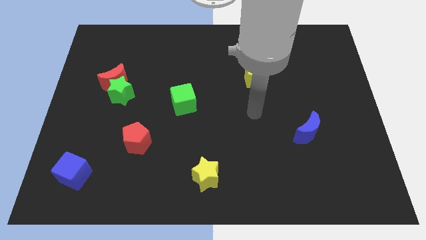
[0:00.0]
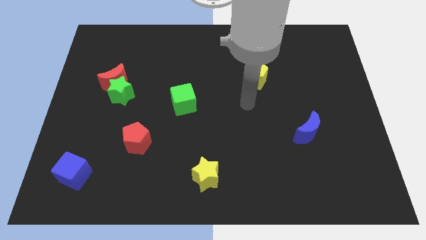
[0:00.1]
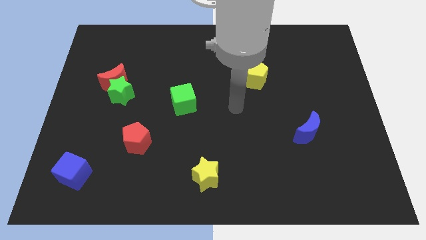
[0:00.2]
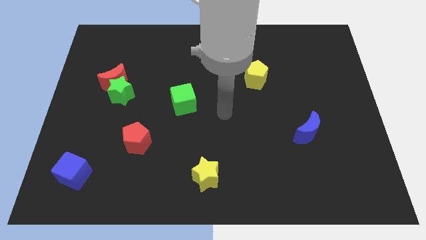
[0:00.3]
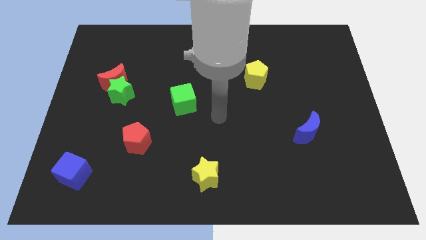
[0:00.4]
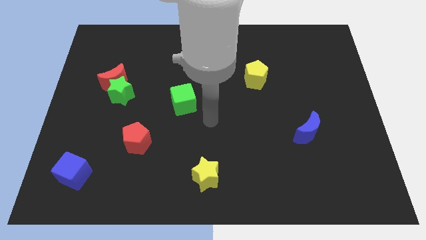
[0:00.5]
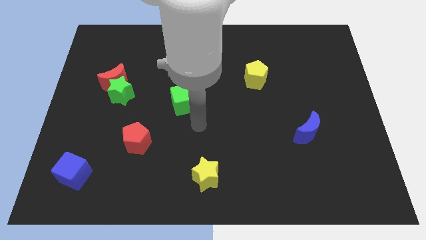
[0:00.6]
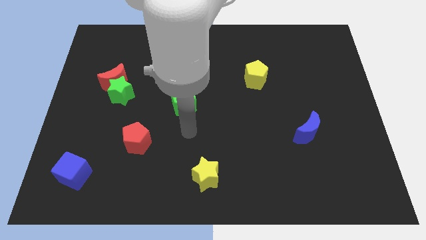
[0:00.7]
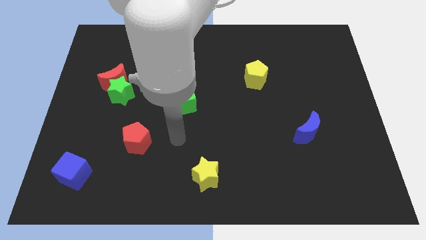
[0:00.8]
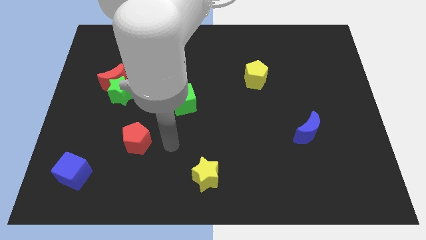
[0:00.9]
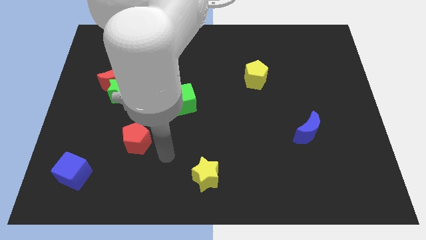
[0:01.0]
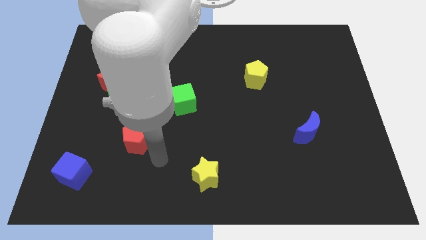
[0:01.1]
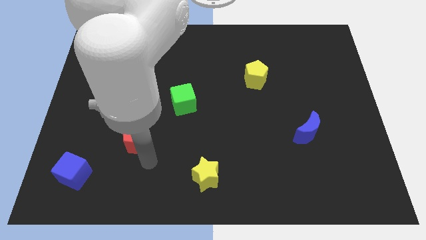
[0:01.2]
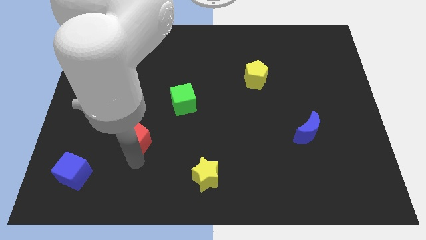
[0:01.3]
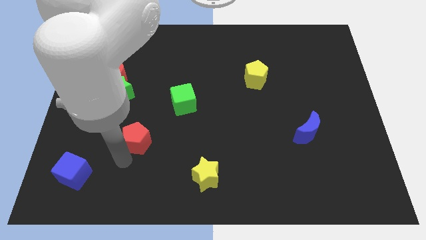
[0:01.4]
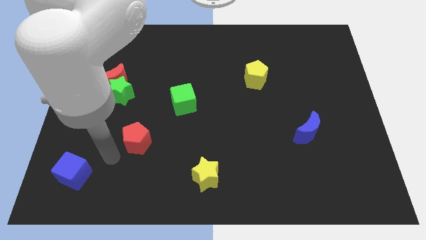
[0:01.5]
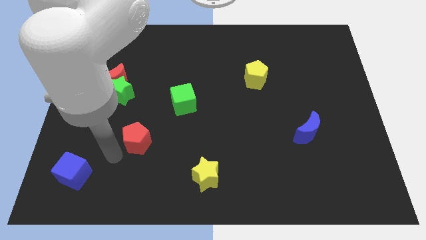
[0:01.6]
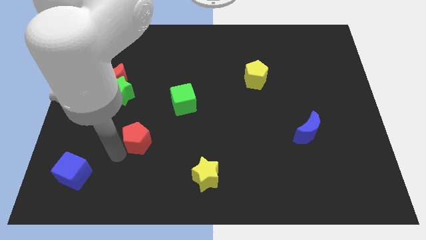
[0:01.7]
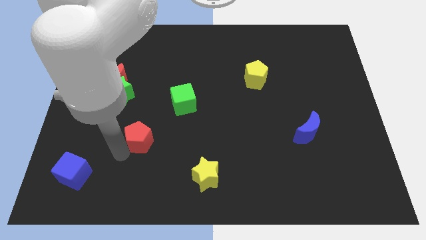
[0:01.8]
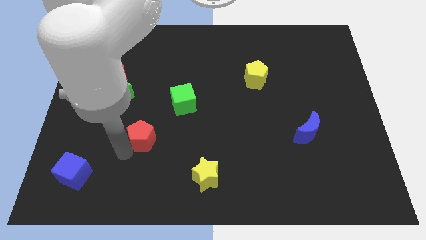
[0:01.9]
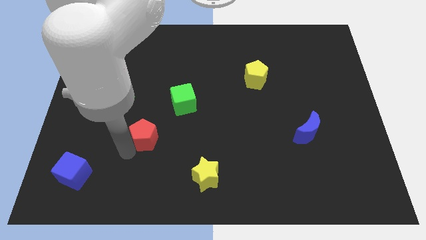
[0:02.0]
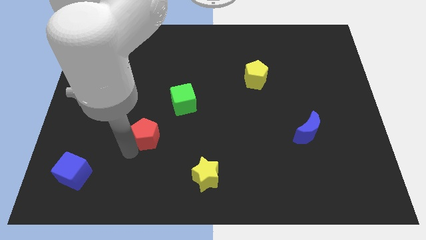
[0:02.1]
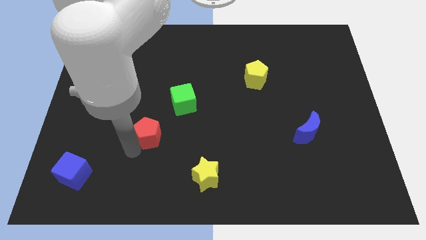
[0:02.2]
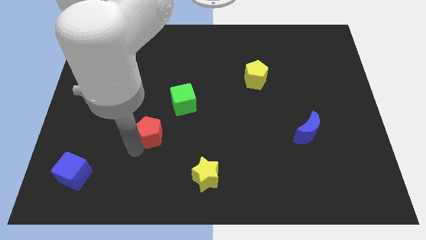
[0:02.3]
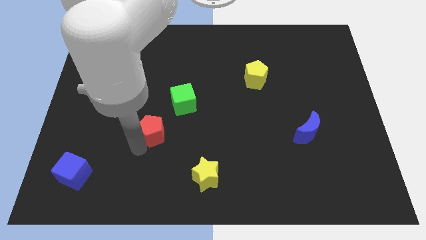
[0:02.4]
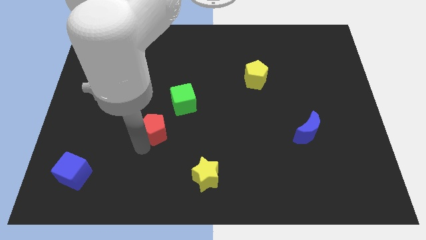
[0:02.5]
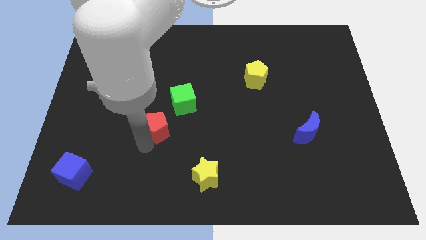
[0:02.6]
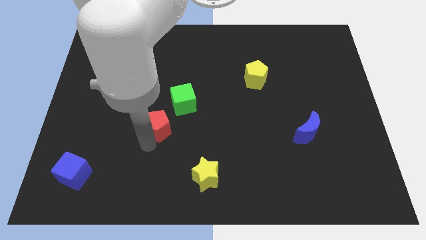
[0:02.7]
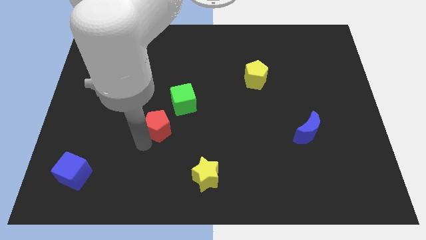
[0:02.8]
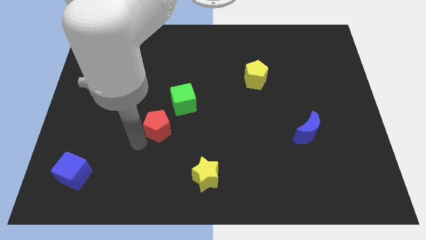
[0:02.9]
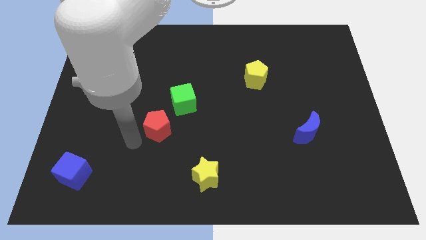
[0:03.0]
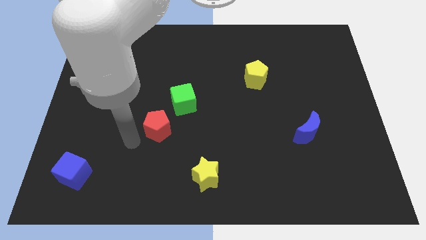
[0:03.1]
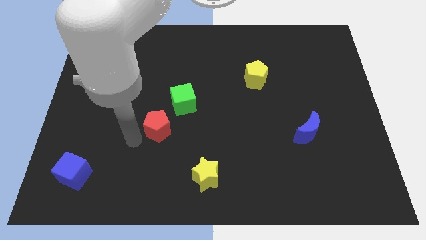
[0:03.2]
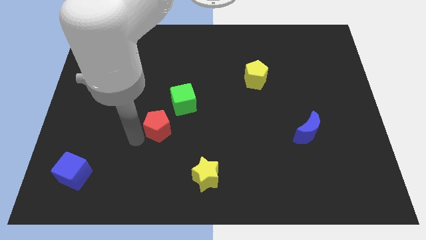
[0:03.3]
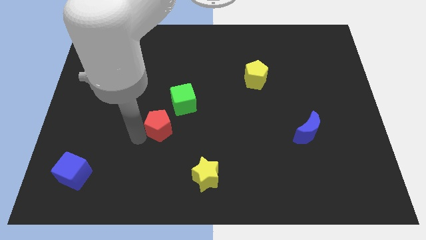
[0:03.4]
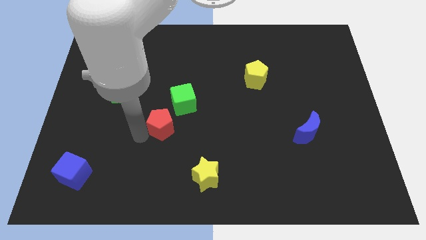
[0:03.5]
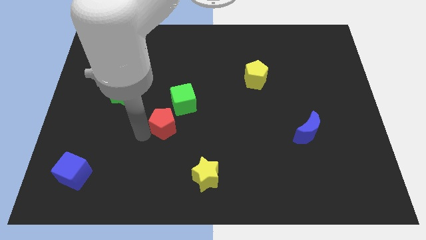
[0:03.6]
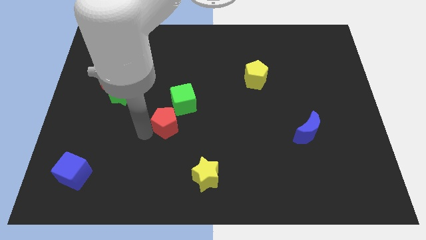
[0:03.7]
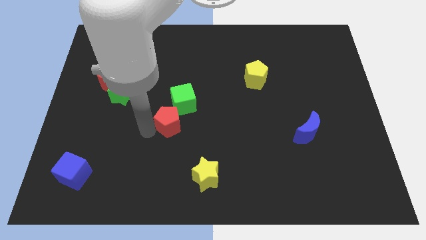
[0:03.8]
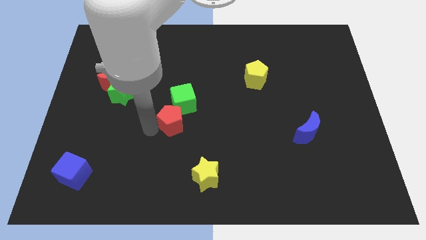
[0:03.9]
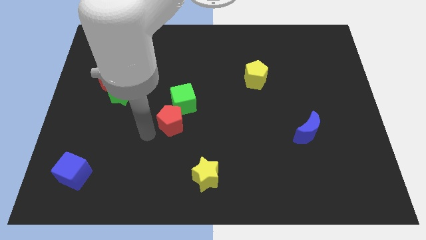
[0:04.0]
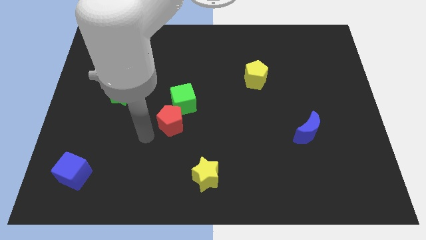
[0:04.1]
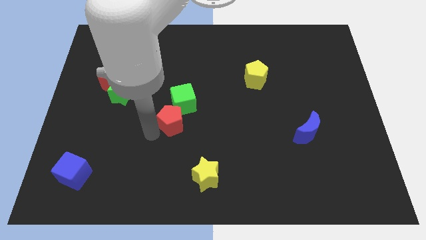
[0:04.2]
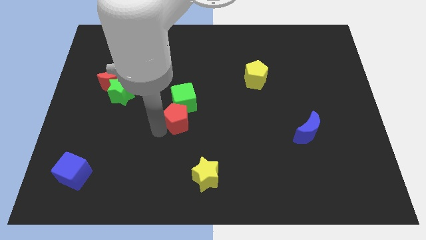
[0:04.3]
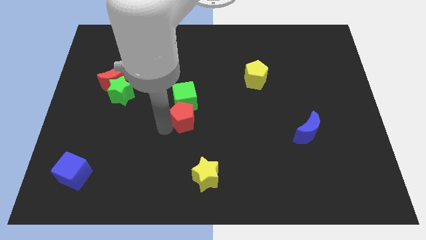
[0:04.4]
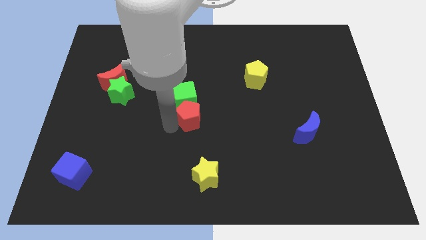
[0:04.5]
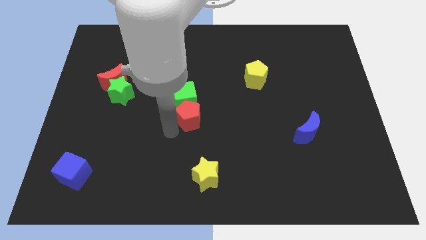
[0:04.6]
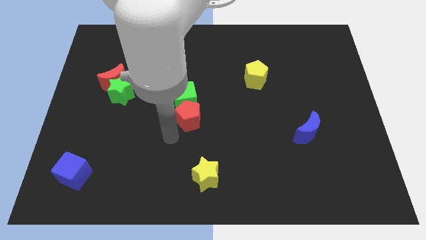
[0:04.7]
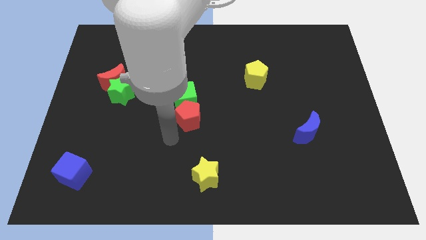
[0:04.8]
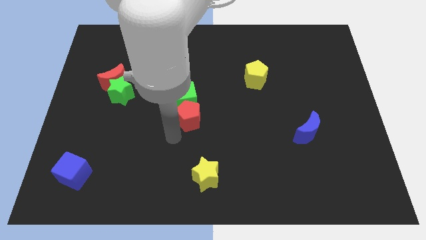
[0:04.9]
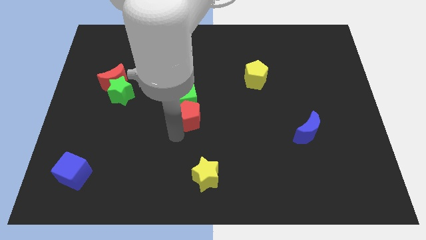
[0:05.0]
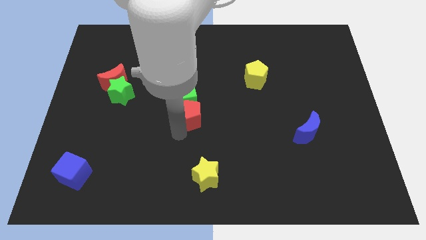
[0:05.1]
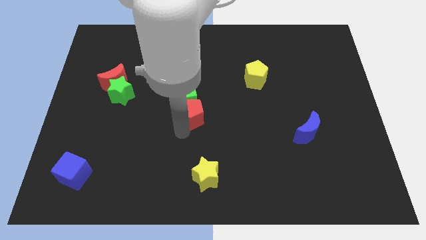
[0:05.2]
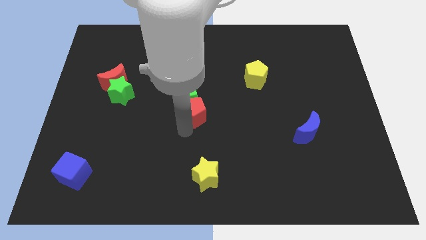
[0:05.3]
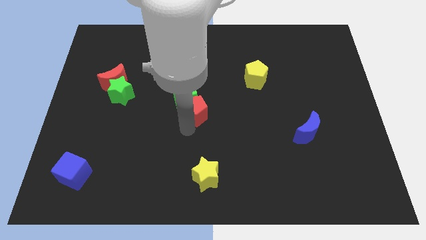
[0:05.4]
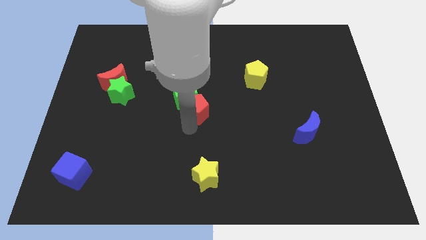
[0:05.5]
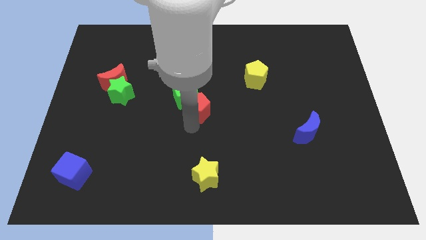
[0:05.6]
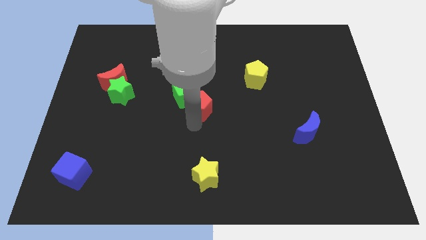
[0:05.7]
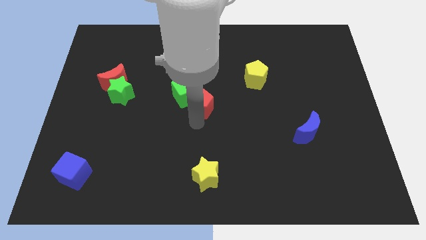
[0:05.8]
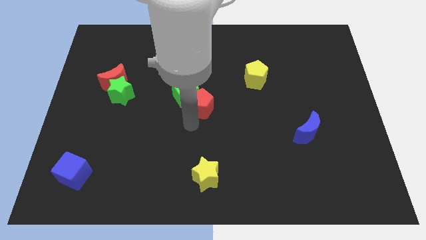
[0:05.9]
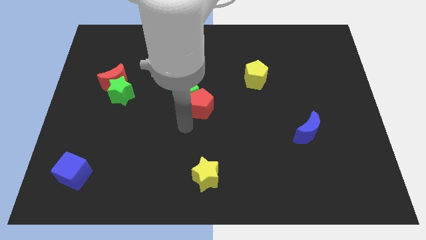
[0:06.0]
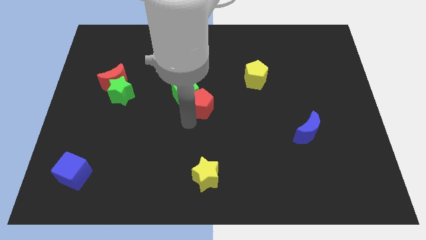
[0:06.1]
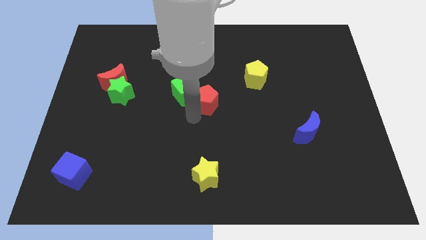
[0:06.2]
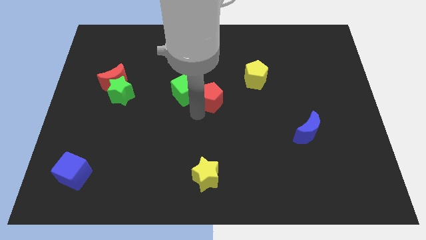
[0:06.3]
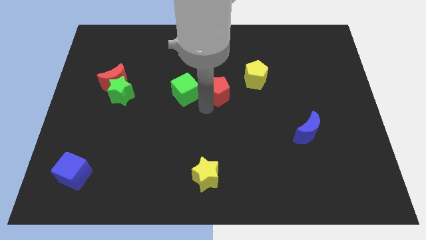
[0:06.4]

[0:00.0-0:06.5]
push the red pentagon diagonally upwards and right

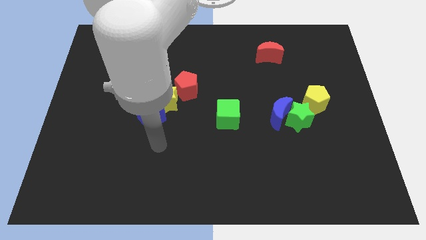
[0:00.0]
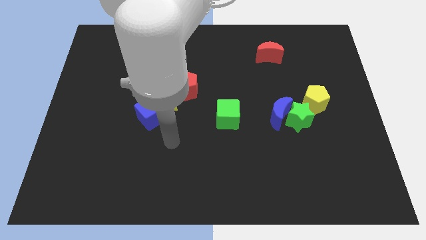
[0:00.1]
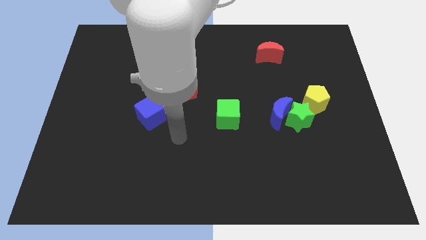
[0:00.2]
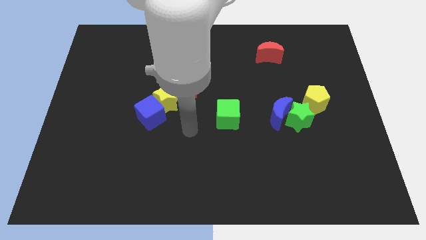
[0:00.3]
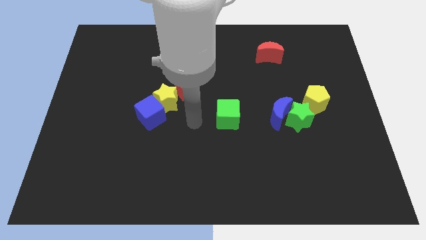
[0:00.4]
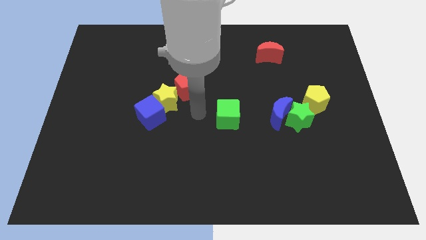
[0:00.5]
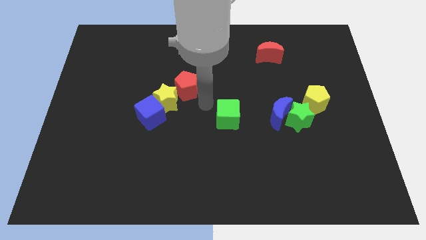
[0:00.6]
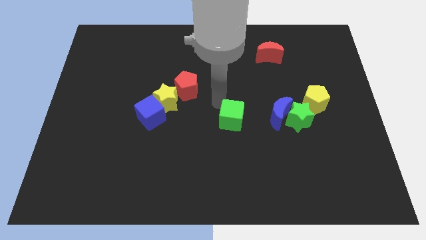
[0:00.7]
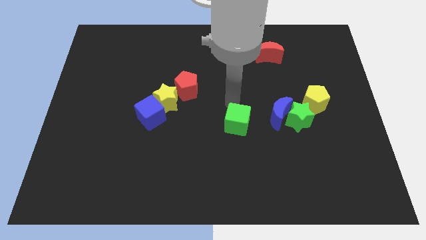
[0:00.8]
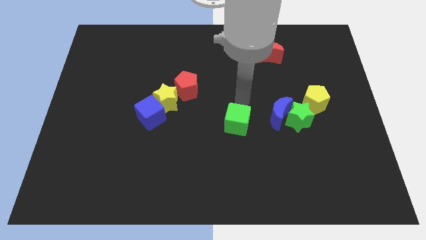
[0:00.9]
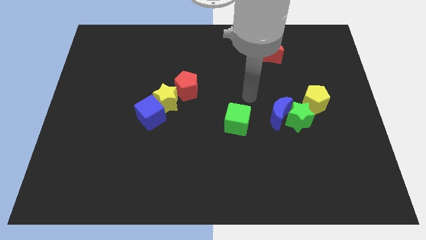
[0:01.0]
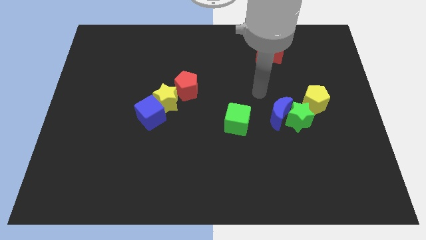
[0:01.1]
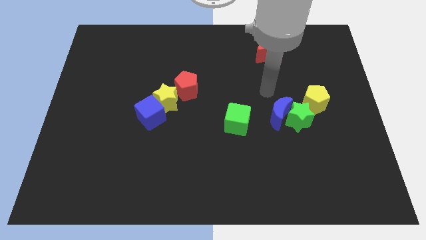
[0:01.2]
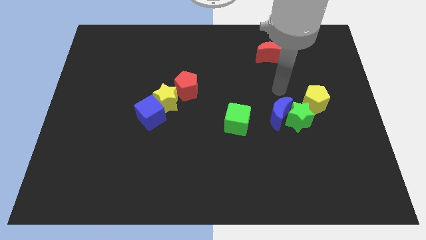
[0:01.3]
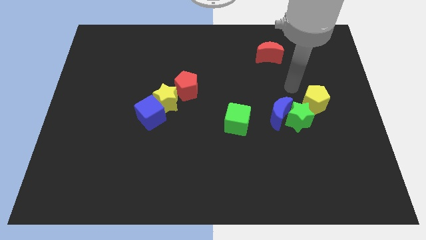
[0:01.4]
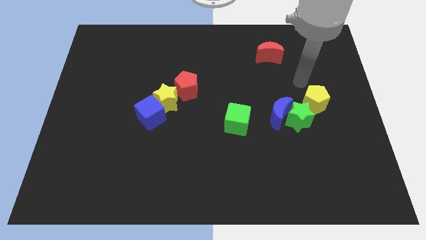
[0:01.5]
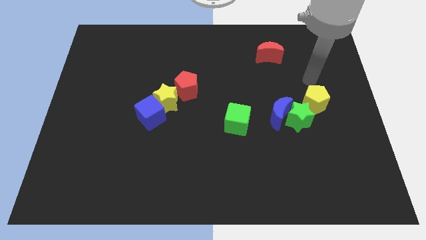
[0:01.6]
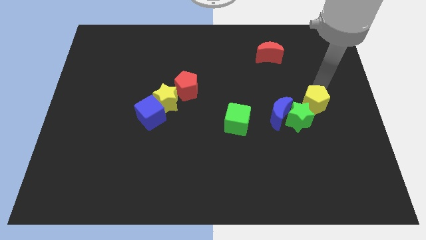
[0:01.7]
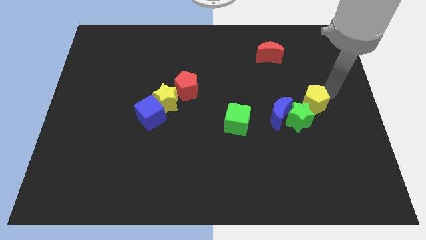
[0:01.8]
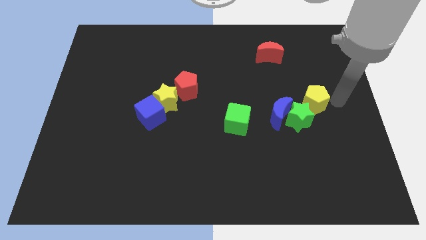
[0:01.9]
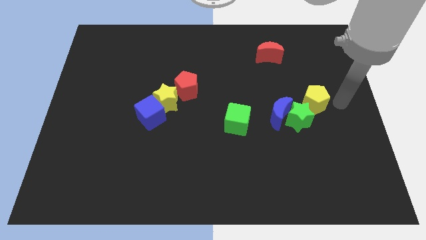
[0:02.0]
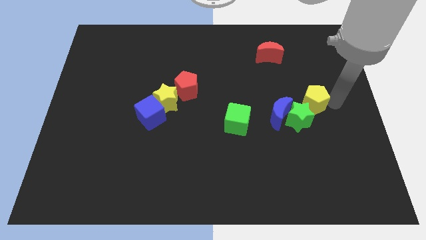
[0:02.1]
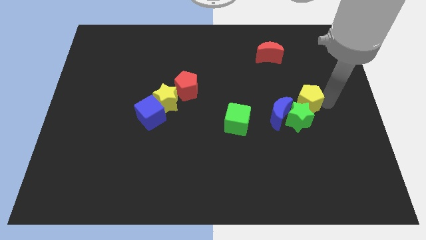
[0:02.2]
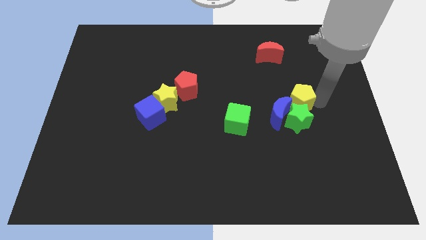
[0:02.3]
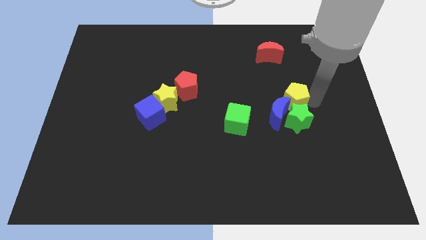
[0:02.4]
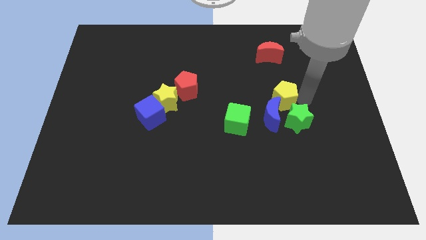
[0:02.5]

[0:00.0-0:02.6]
push the yellow pentagon a little bit to the left
